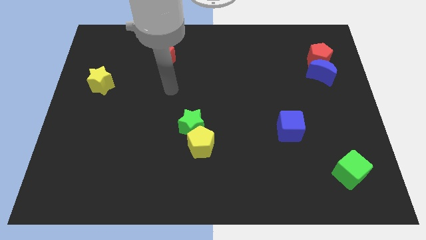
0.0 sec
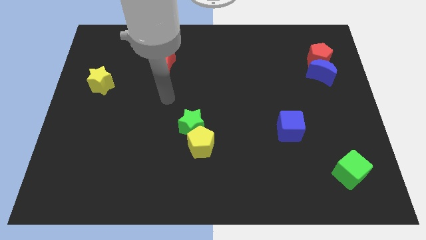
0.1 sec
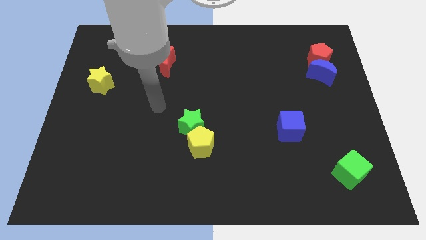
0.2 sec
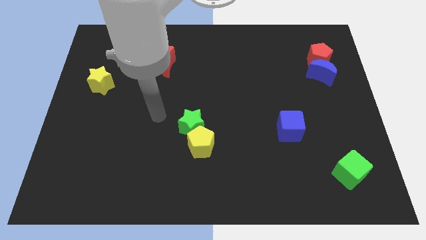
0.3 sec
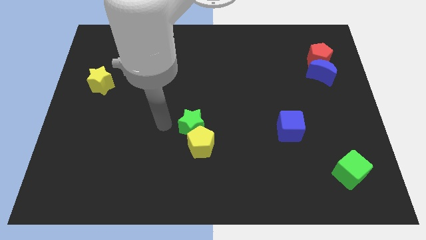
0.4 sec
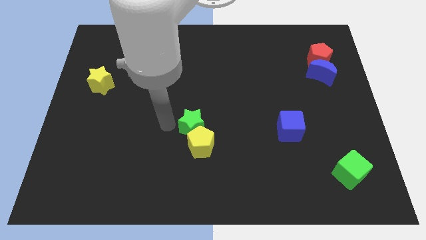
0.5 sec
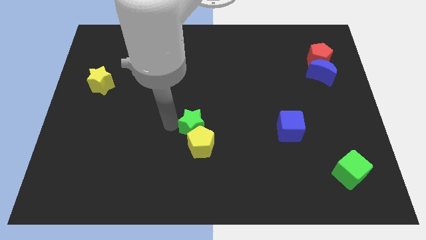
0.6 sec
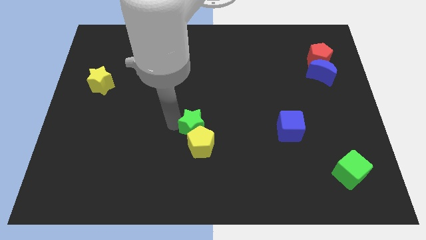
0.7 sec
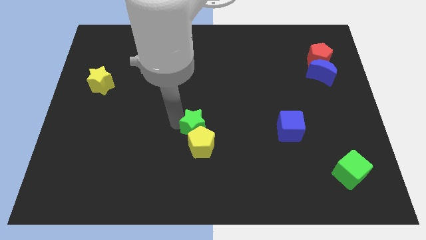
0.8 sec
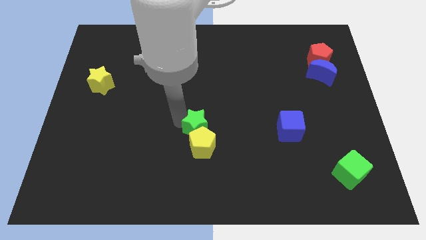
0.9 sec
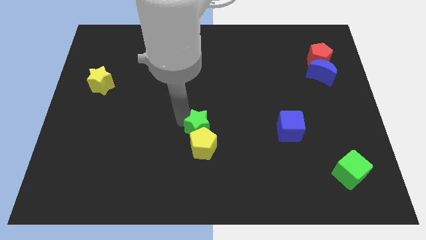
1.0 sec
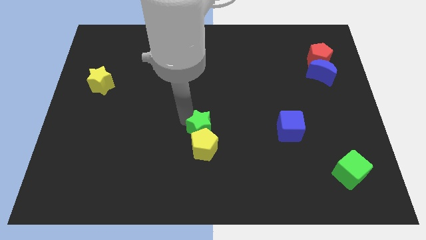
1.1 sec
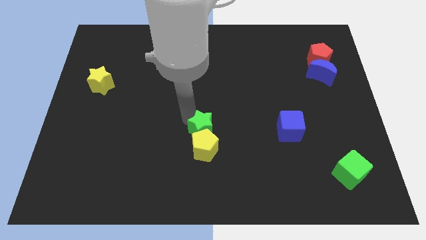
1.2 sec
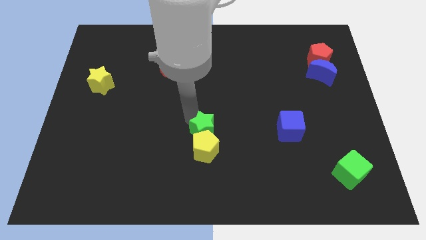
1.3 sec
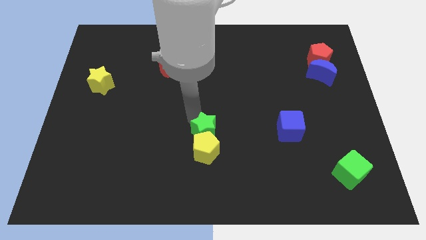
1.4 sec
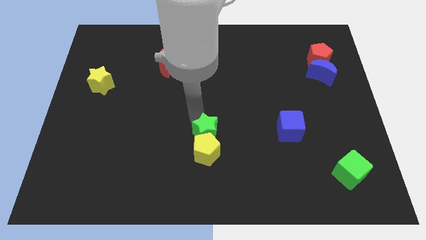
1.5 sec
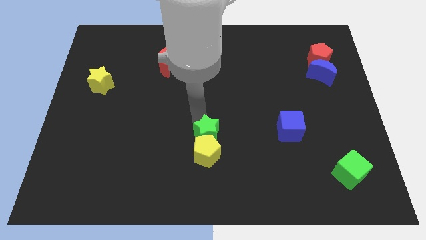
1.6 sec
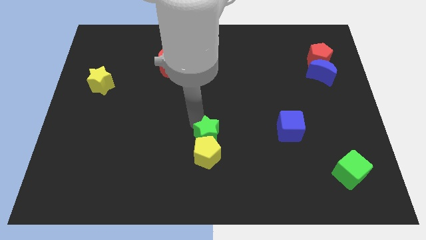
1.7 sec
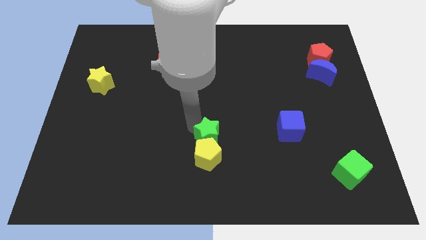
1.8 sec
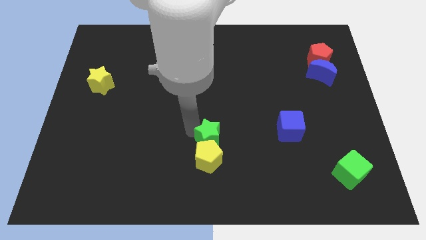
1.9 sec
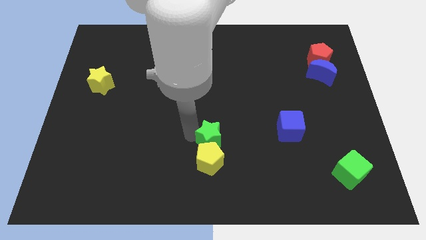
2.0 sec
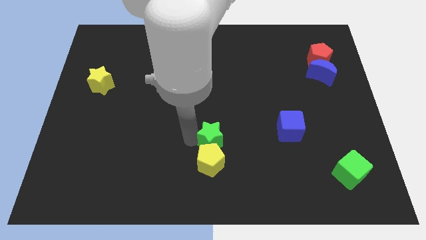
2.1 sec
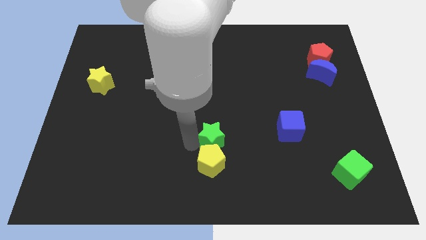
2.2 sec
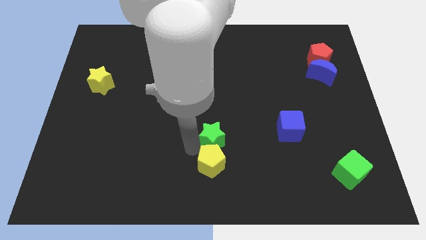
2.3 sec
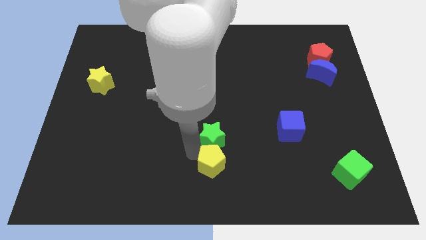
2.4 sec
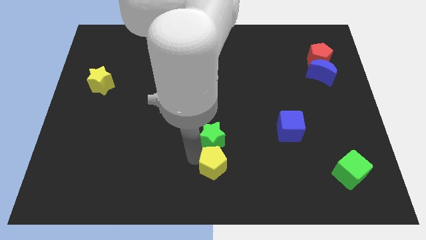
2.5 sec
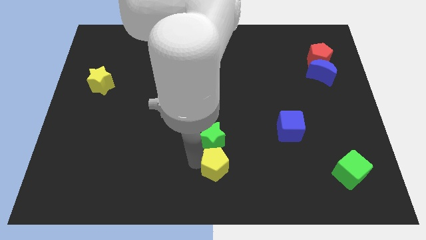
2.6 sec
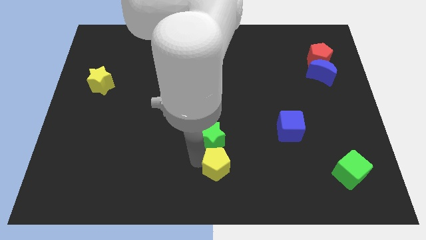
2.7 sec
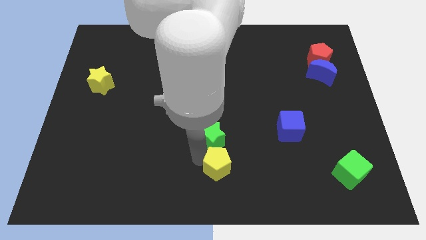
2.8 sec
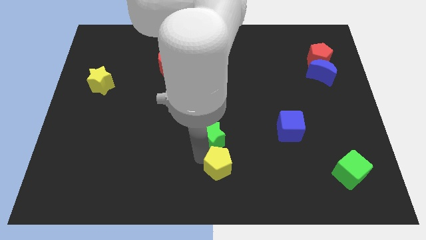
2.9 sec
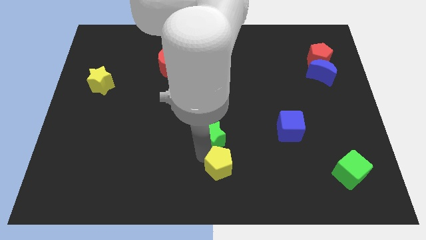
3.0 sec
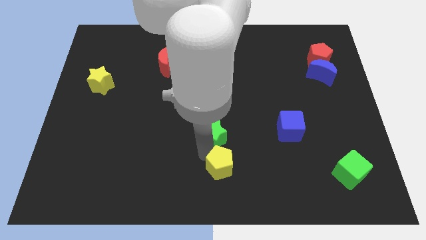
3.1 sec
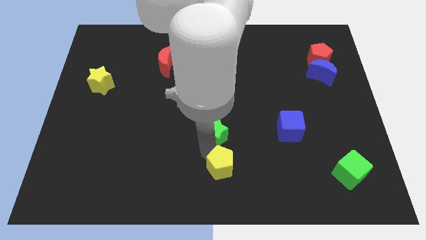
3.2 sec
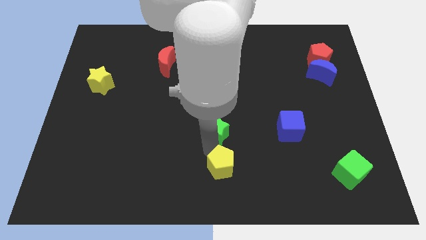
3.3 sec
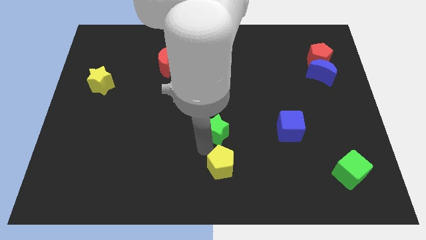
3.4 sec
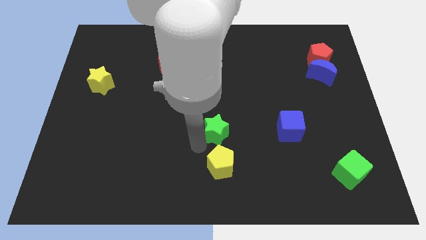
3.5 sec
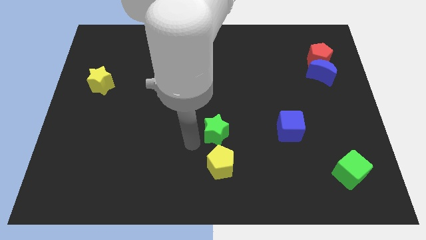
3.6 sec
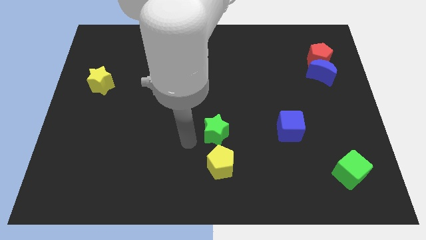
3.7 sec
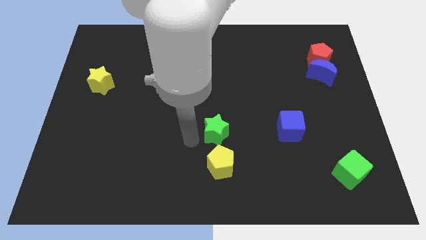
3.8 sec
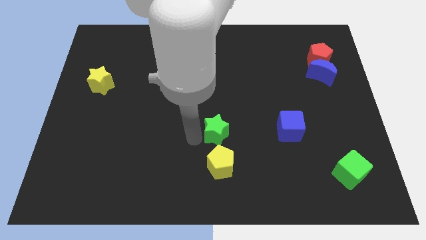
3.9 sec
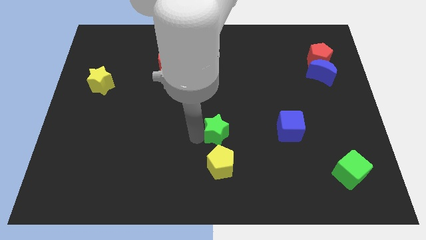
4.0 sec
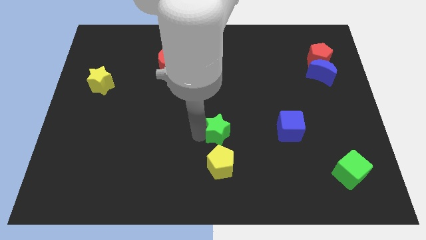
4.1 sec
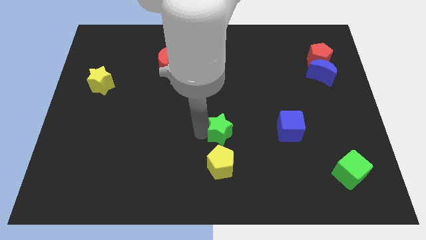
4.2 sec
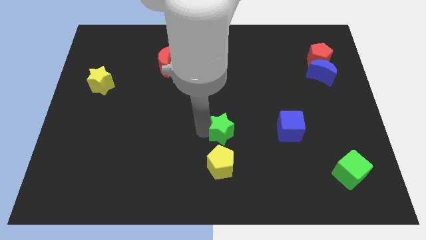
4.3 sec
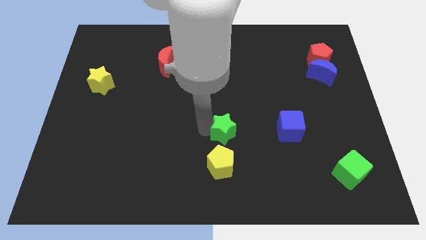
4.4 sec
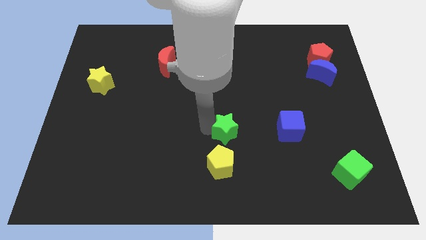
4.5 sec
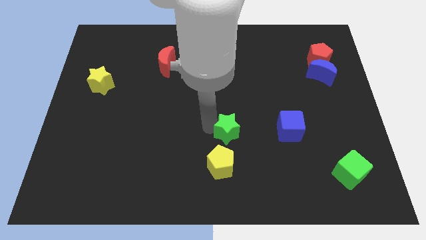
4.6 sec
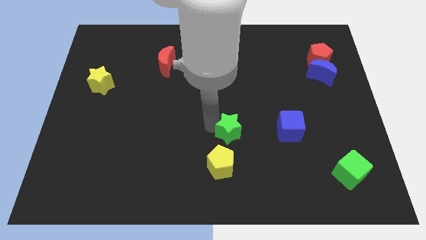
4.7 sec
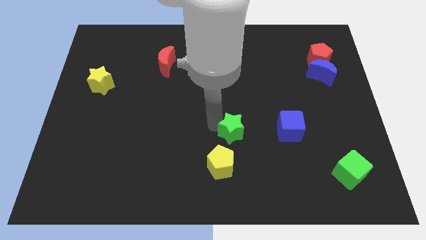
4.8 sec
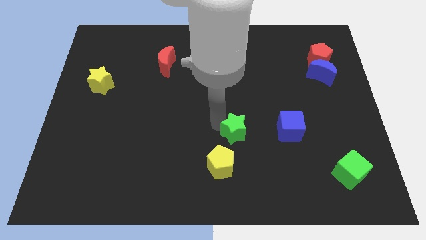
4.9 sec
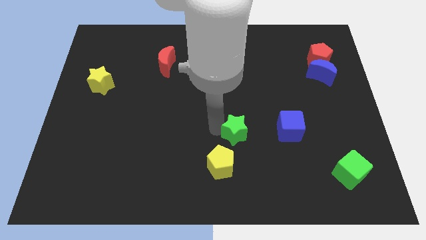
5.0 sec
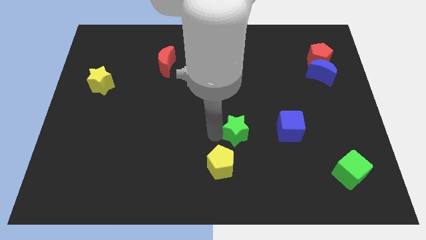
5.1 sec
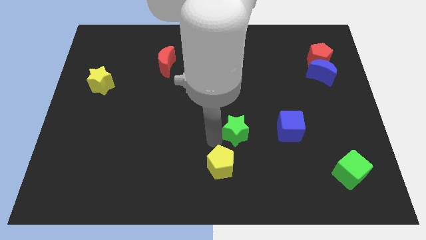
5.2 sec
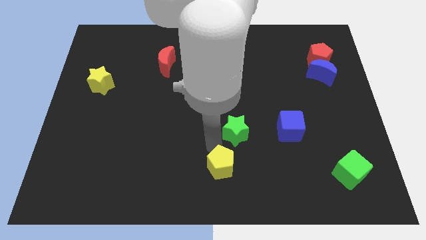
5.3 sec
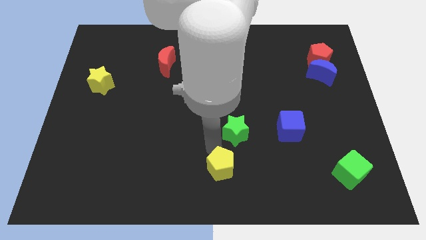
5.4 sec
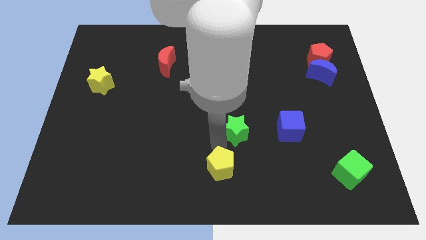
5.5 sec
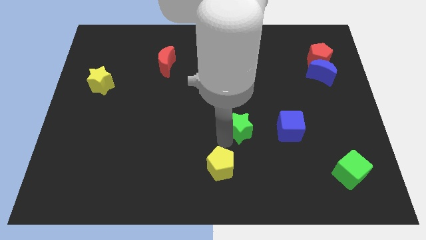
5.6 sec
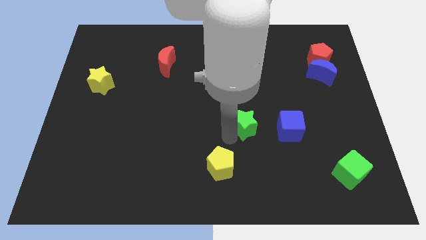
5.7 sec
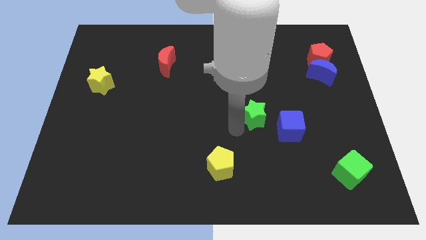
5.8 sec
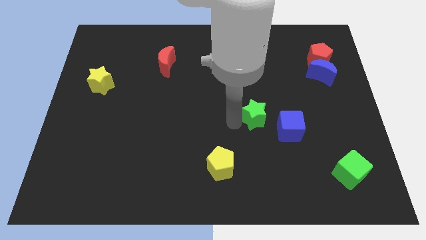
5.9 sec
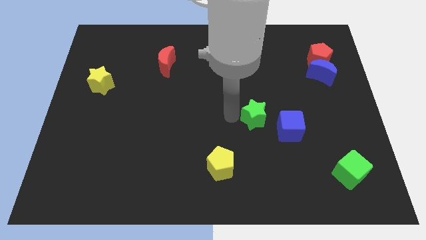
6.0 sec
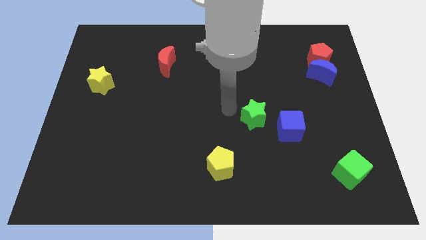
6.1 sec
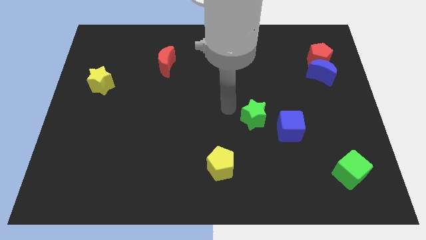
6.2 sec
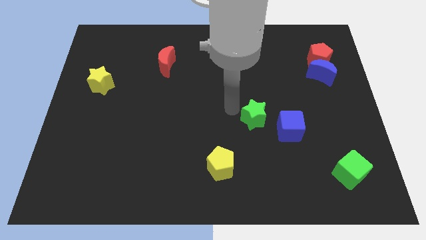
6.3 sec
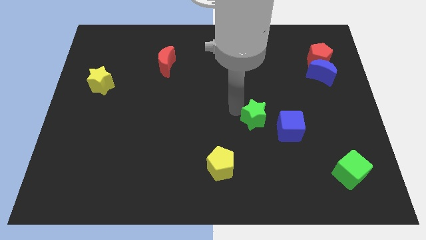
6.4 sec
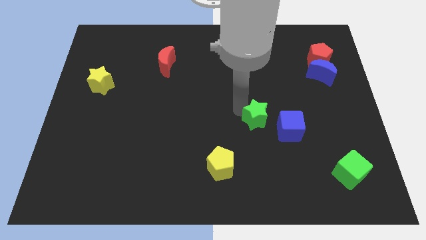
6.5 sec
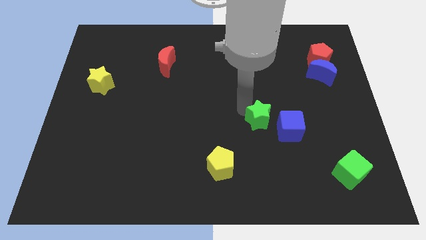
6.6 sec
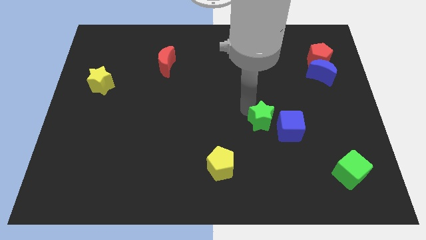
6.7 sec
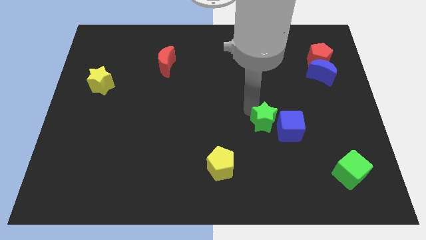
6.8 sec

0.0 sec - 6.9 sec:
push the green star to the blue cube
